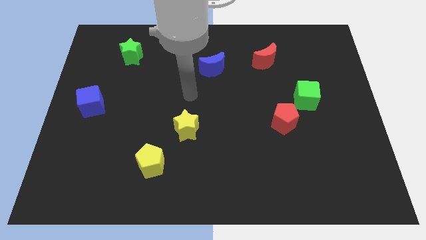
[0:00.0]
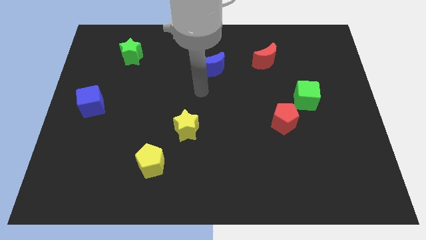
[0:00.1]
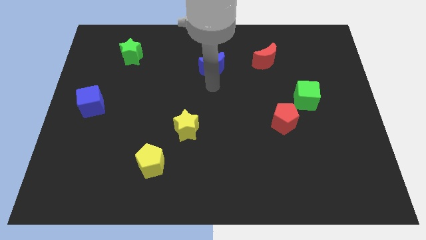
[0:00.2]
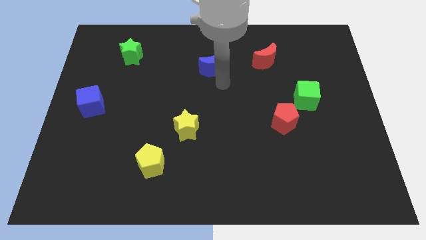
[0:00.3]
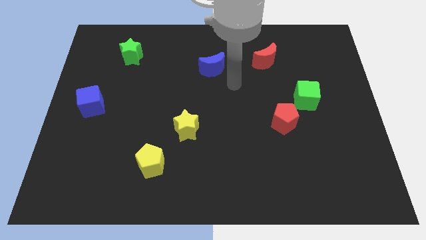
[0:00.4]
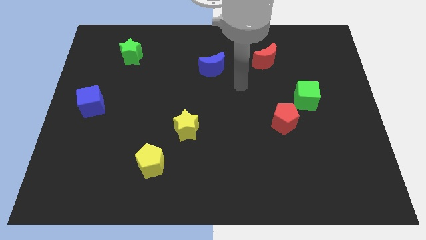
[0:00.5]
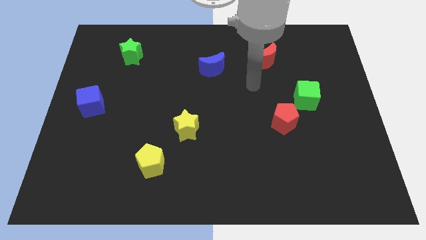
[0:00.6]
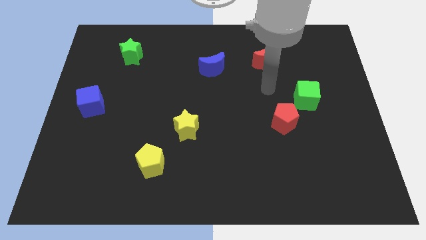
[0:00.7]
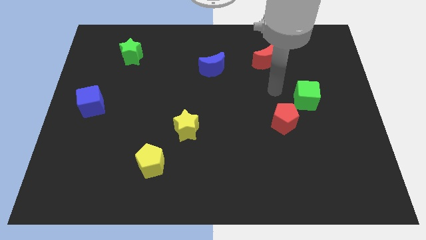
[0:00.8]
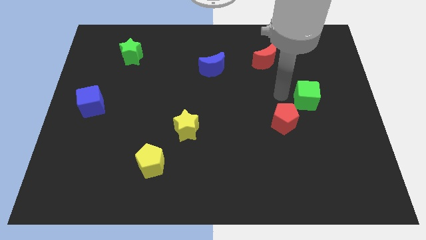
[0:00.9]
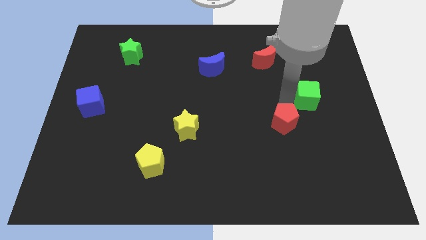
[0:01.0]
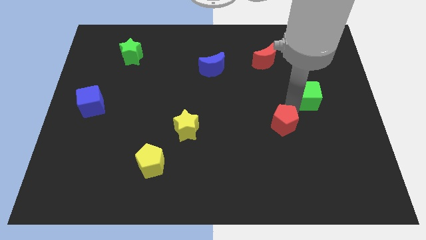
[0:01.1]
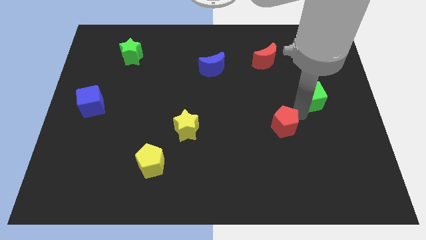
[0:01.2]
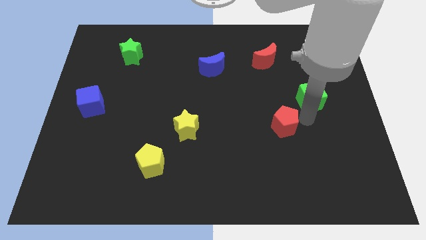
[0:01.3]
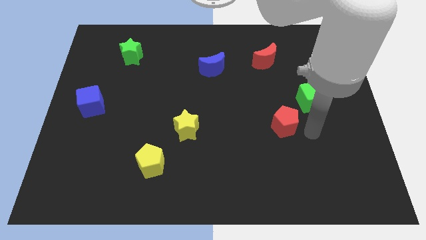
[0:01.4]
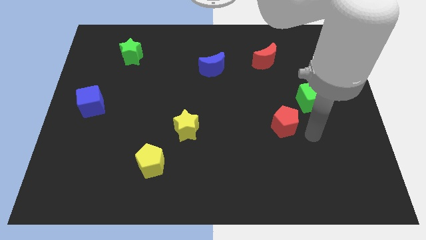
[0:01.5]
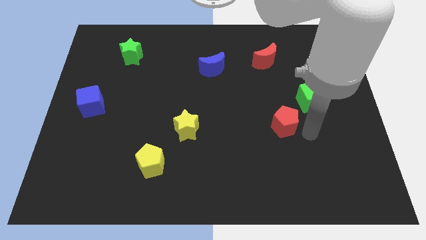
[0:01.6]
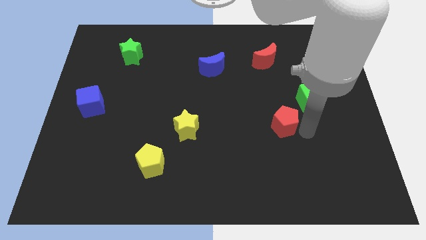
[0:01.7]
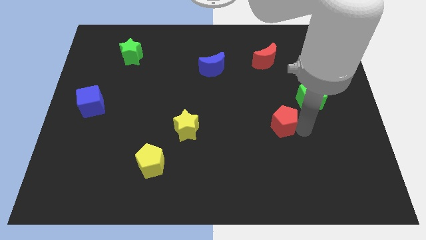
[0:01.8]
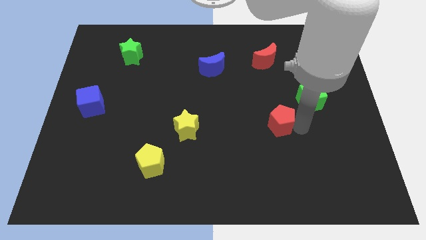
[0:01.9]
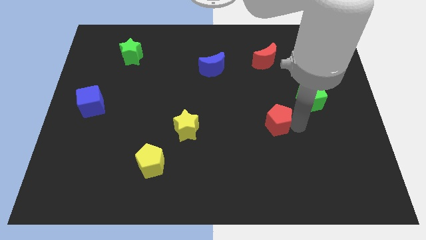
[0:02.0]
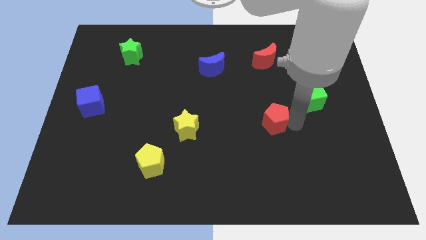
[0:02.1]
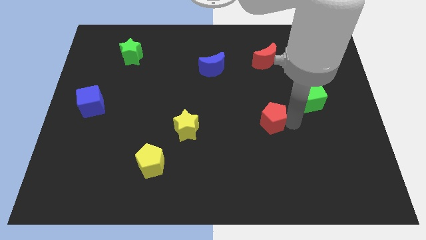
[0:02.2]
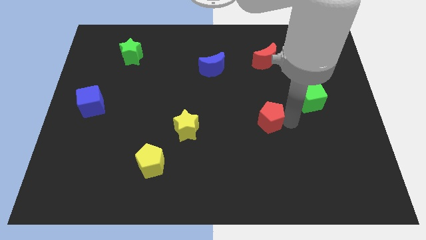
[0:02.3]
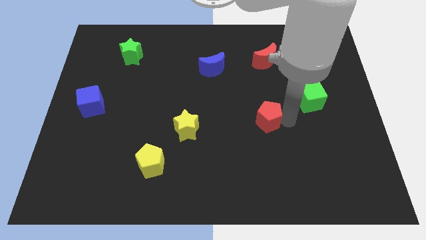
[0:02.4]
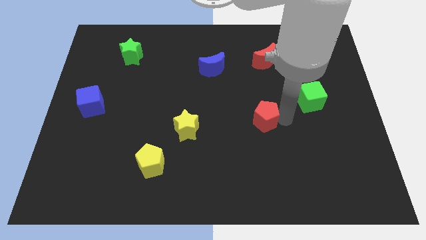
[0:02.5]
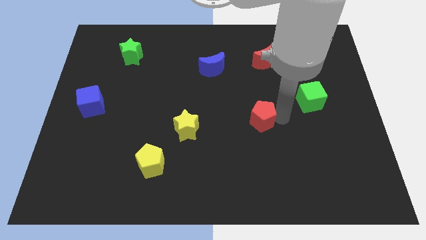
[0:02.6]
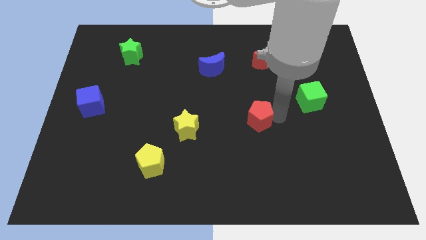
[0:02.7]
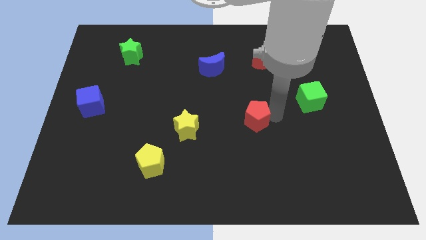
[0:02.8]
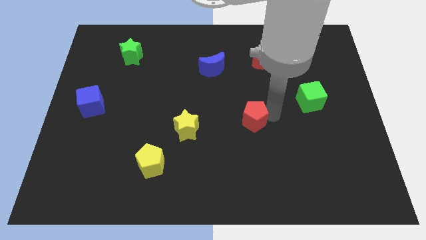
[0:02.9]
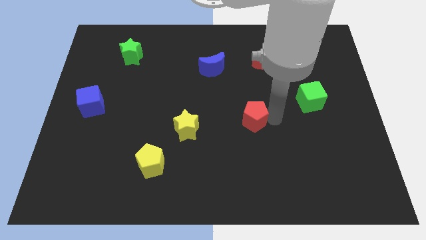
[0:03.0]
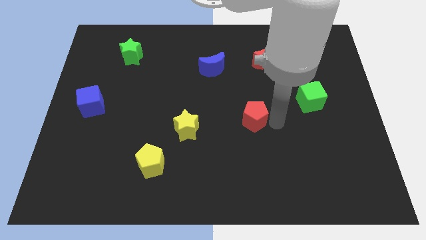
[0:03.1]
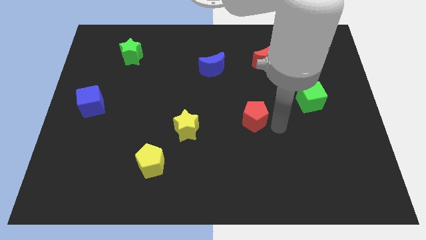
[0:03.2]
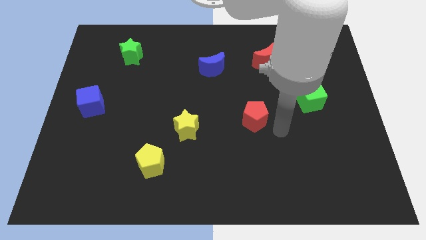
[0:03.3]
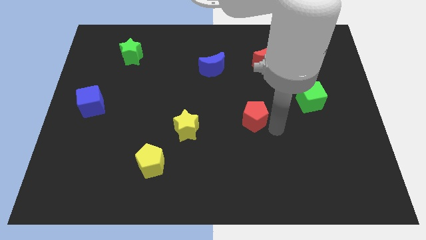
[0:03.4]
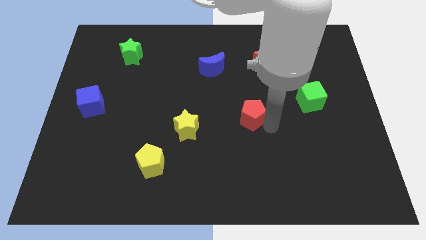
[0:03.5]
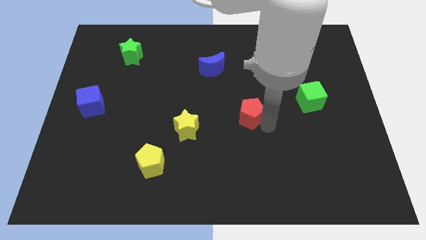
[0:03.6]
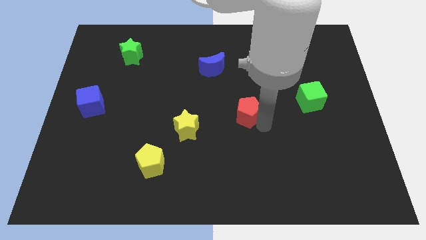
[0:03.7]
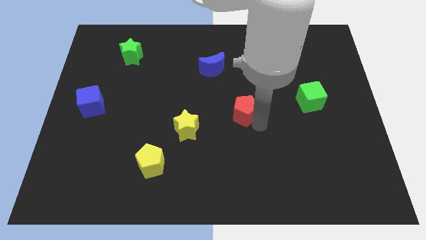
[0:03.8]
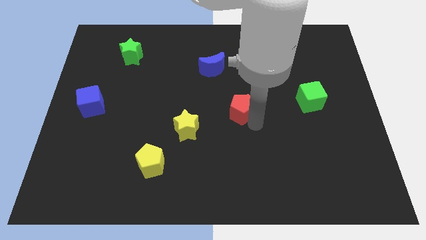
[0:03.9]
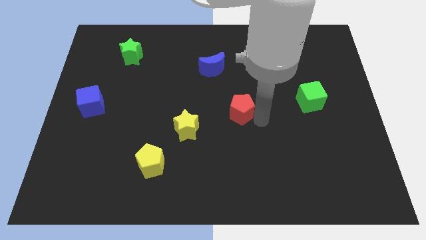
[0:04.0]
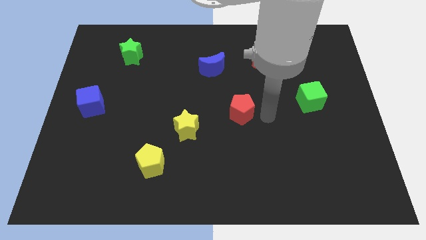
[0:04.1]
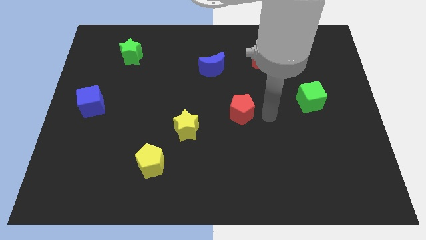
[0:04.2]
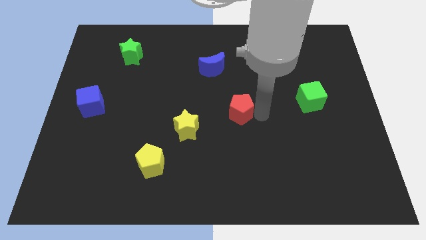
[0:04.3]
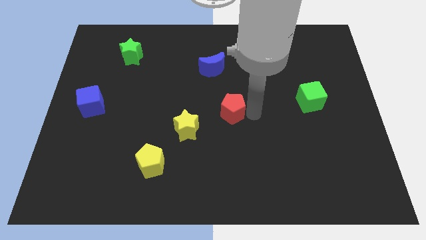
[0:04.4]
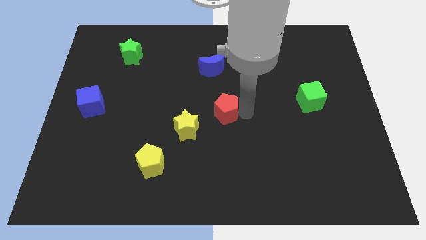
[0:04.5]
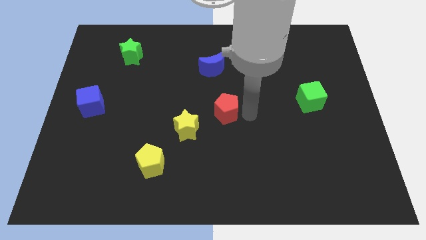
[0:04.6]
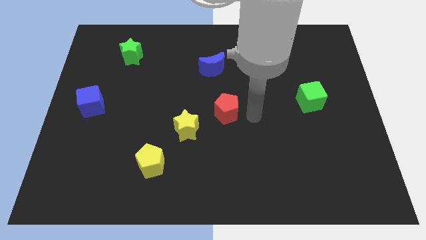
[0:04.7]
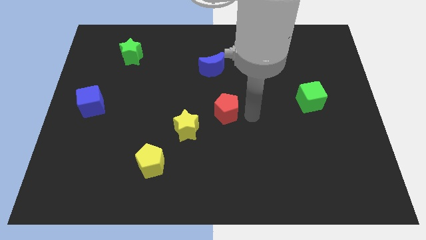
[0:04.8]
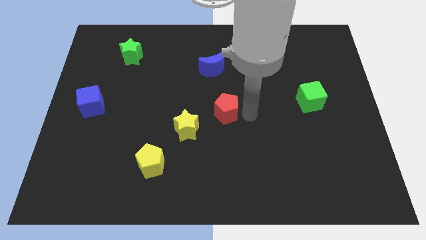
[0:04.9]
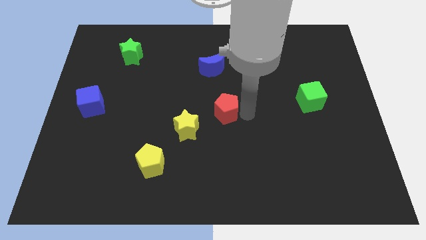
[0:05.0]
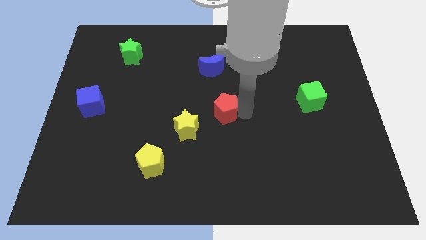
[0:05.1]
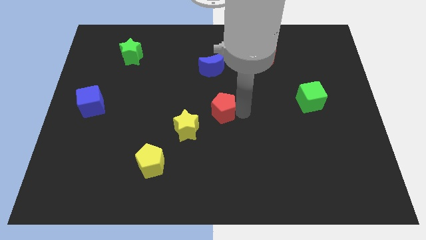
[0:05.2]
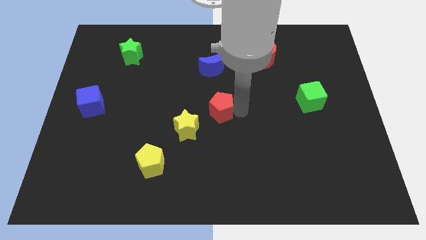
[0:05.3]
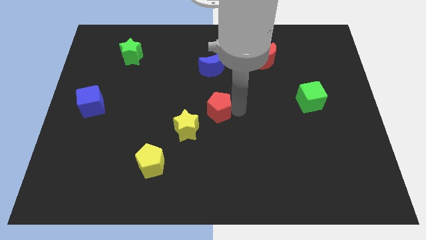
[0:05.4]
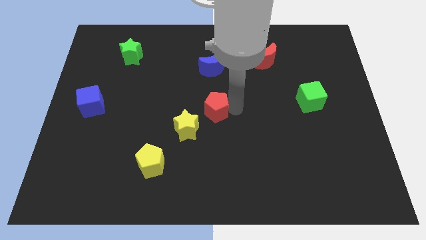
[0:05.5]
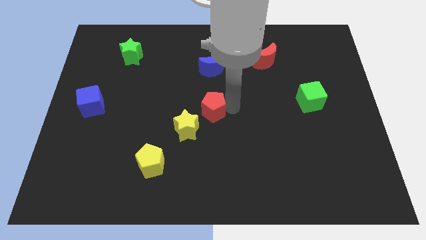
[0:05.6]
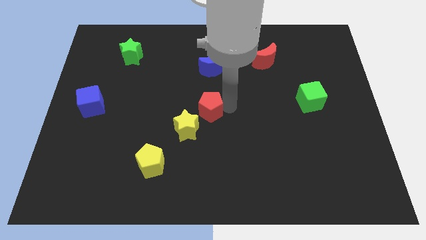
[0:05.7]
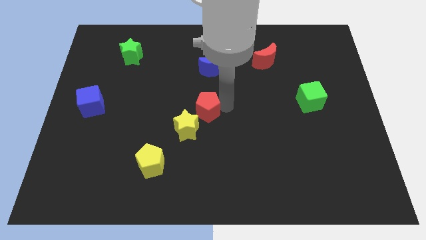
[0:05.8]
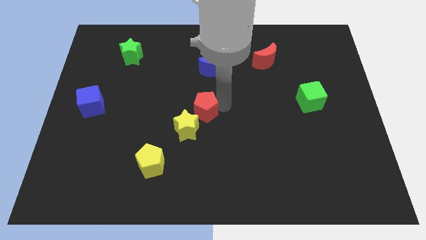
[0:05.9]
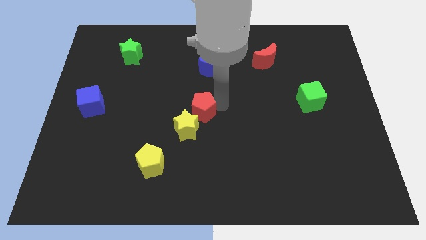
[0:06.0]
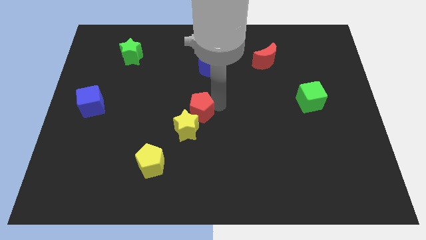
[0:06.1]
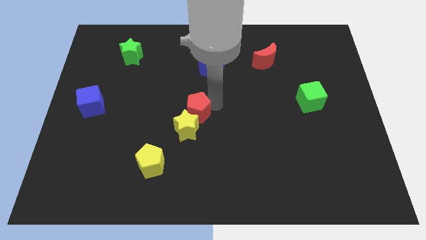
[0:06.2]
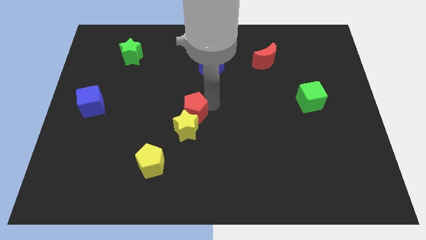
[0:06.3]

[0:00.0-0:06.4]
move the red pentagon to the left

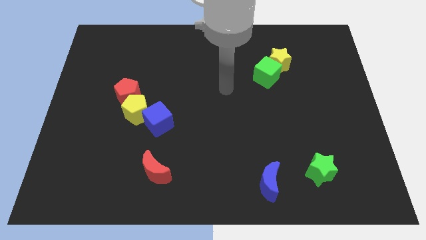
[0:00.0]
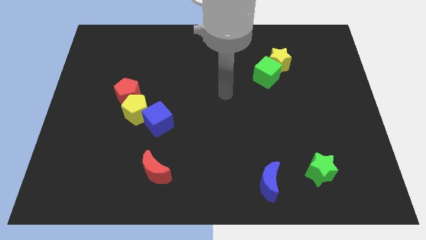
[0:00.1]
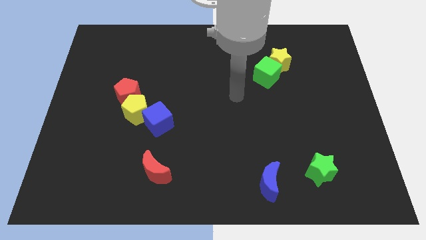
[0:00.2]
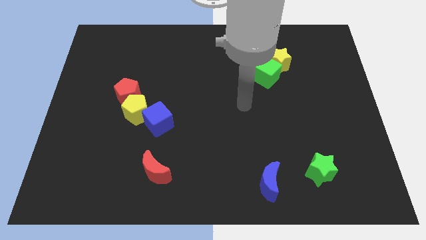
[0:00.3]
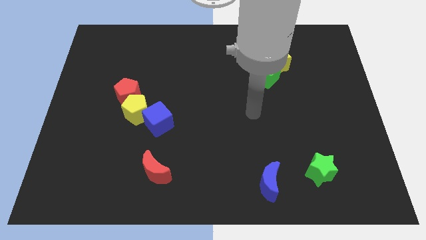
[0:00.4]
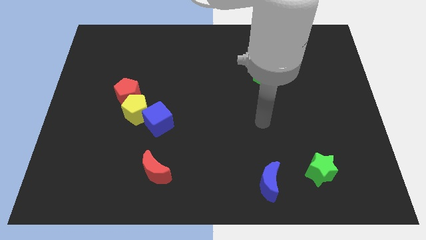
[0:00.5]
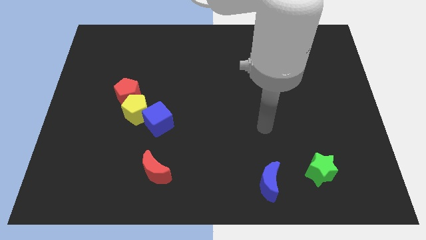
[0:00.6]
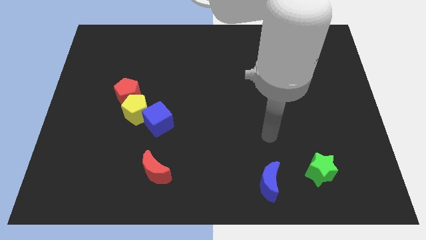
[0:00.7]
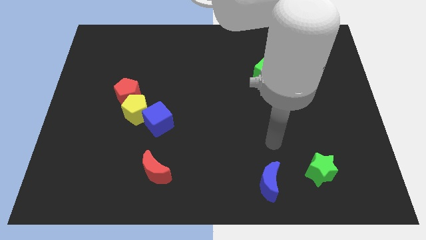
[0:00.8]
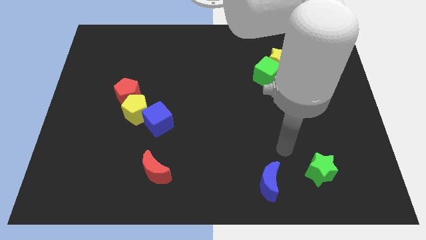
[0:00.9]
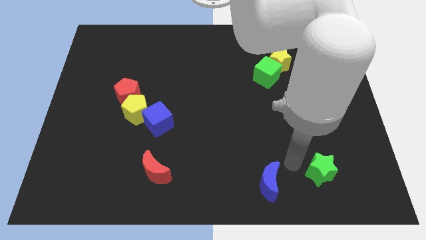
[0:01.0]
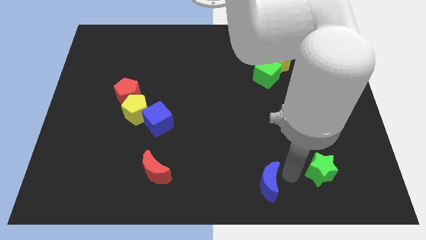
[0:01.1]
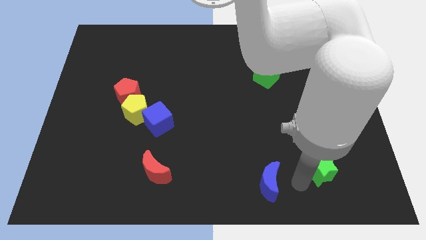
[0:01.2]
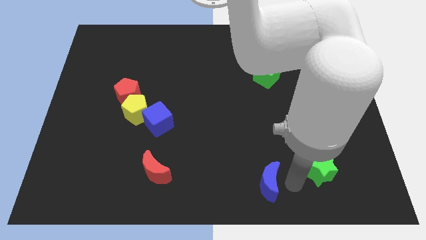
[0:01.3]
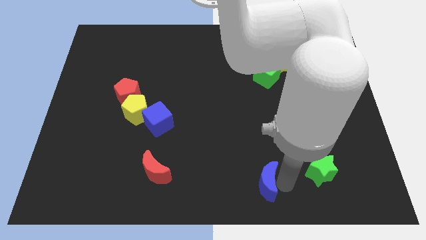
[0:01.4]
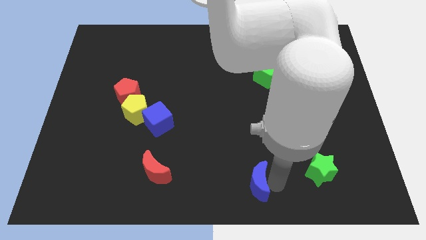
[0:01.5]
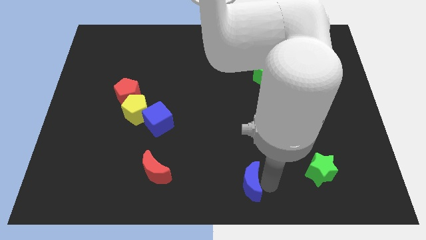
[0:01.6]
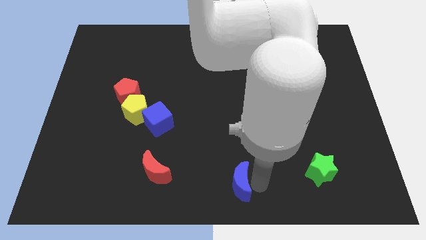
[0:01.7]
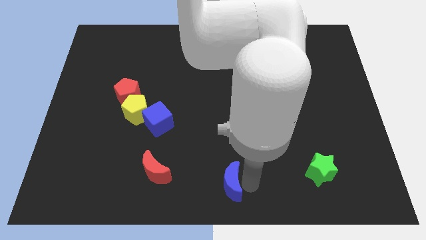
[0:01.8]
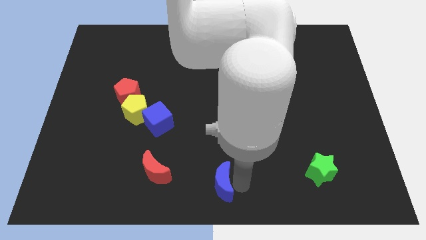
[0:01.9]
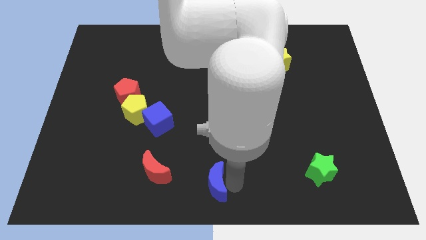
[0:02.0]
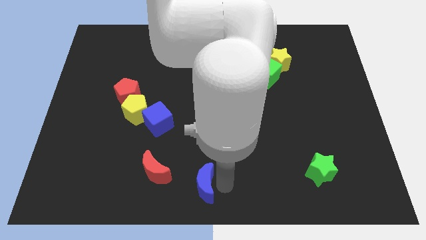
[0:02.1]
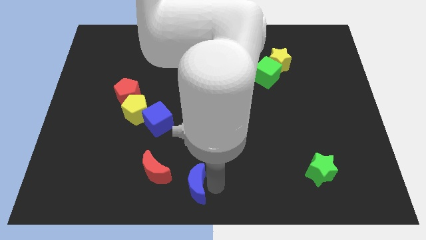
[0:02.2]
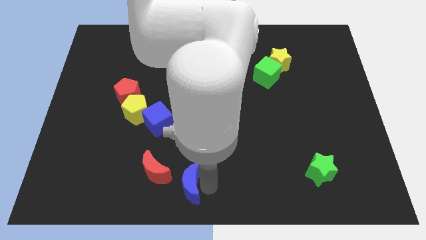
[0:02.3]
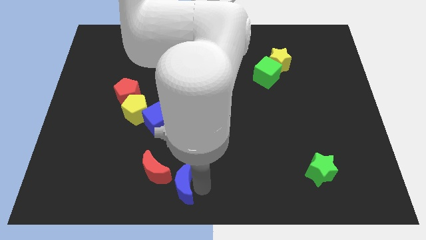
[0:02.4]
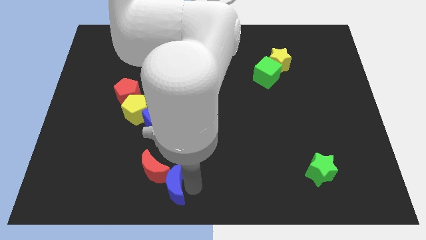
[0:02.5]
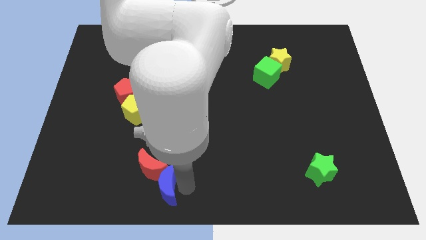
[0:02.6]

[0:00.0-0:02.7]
move the blue moon to the left
